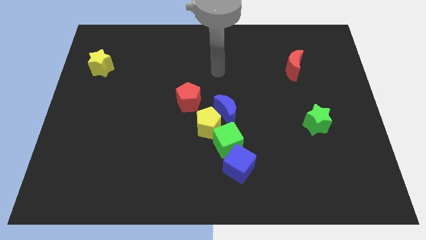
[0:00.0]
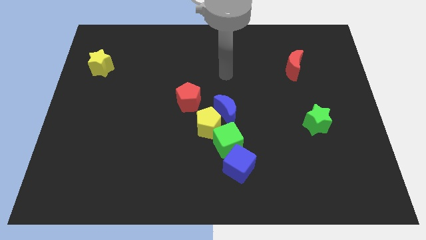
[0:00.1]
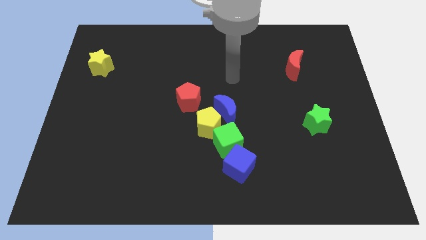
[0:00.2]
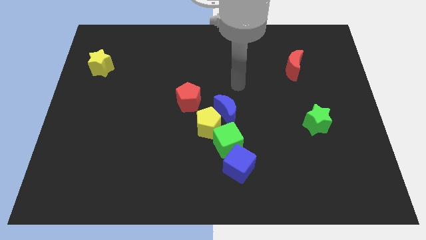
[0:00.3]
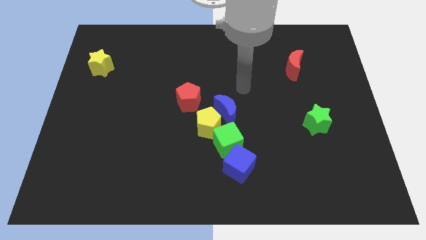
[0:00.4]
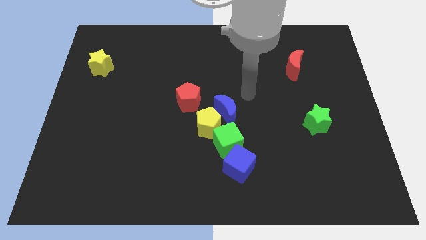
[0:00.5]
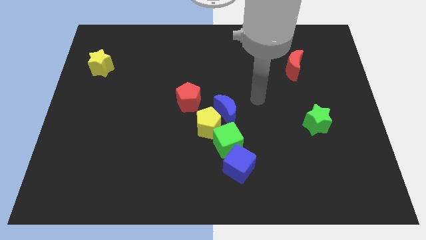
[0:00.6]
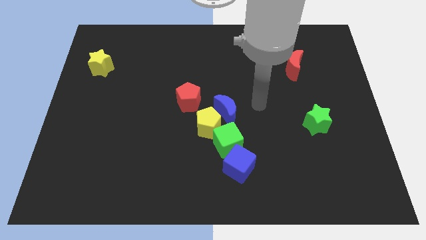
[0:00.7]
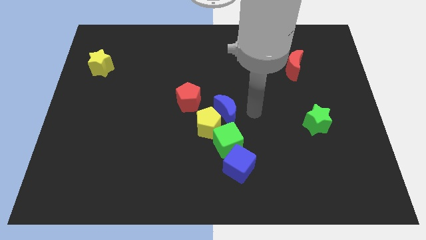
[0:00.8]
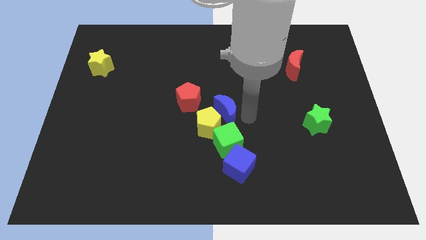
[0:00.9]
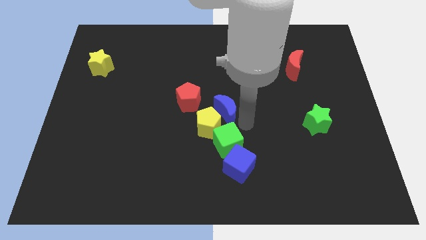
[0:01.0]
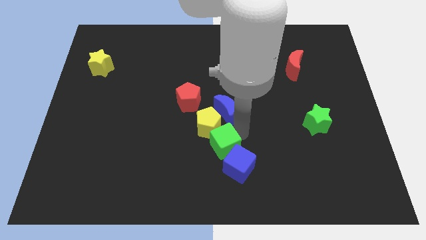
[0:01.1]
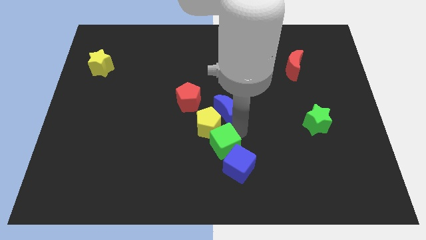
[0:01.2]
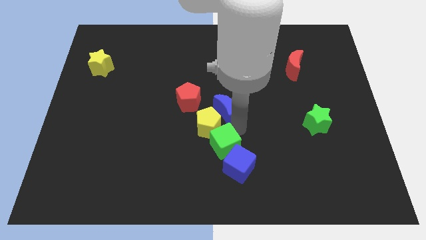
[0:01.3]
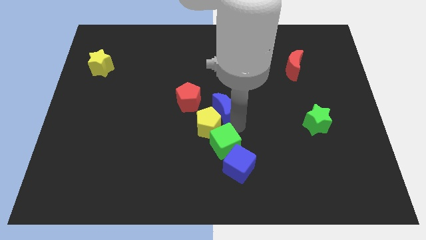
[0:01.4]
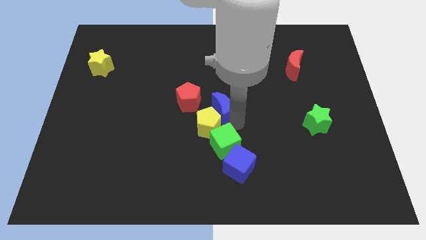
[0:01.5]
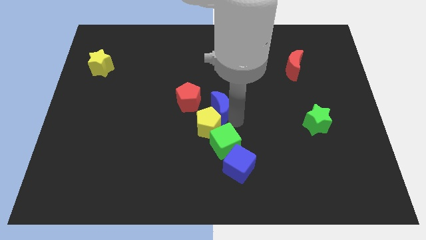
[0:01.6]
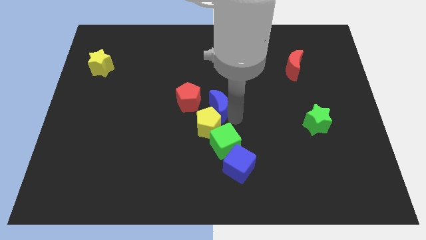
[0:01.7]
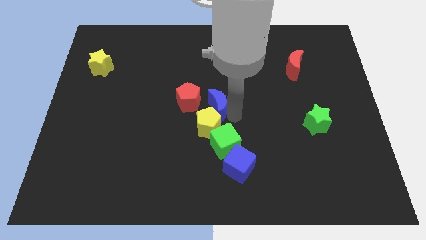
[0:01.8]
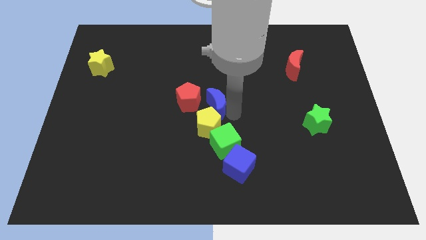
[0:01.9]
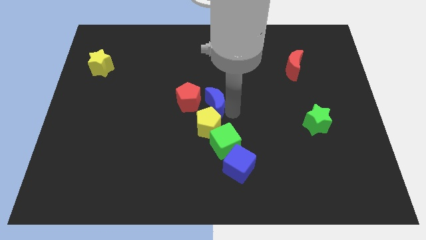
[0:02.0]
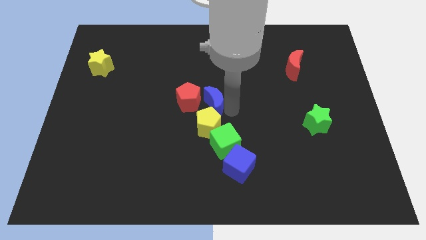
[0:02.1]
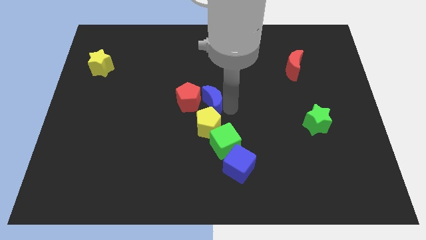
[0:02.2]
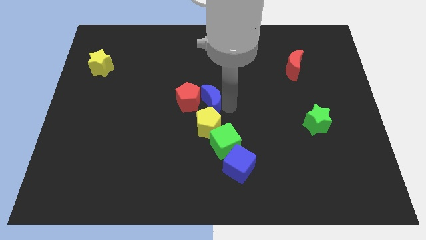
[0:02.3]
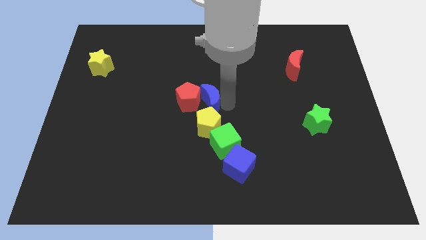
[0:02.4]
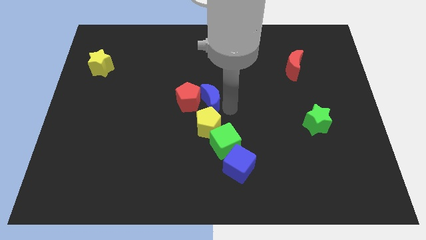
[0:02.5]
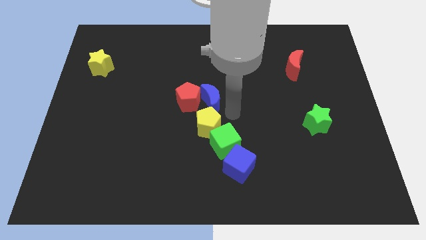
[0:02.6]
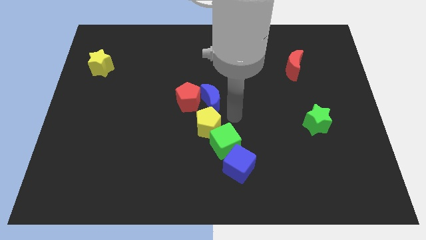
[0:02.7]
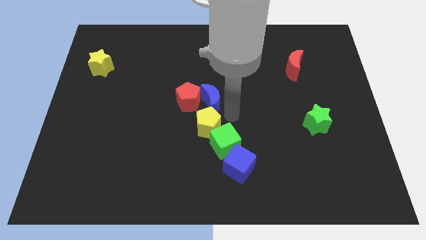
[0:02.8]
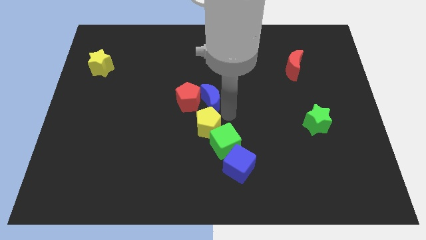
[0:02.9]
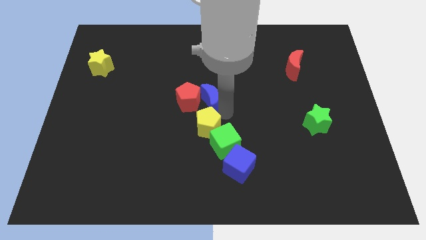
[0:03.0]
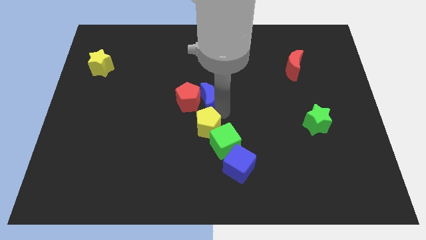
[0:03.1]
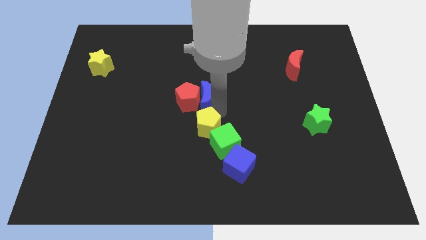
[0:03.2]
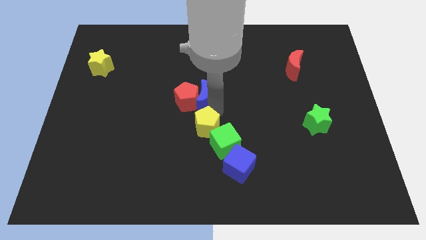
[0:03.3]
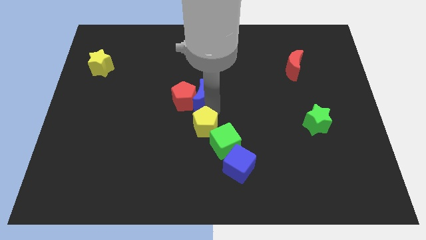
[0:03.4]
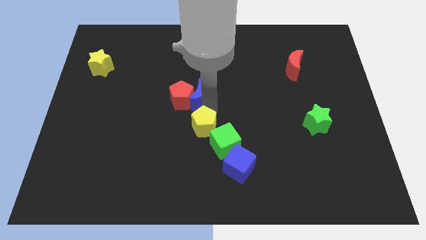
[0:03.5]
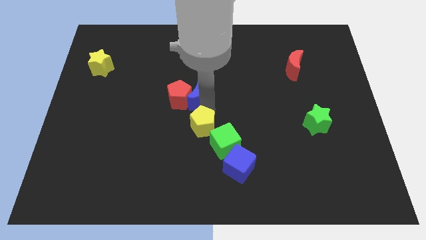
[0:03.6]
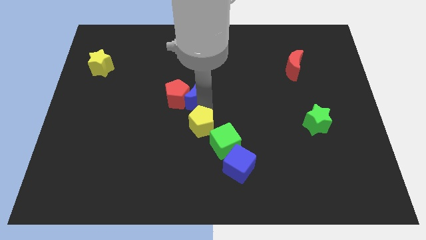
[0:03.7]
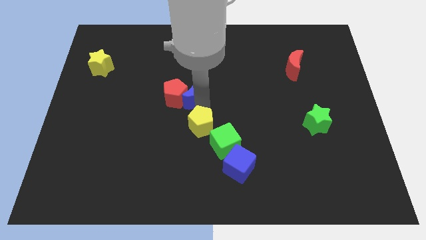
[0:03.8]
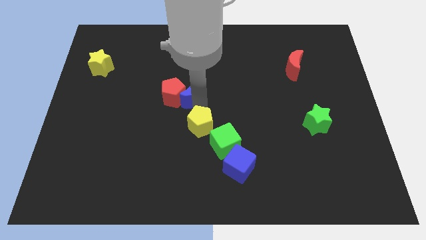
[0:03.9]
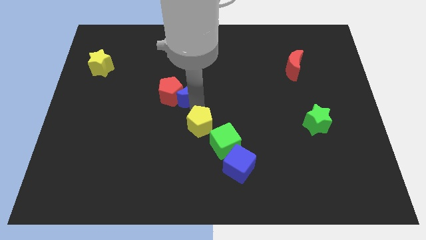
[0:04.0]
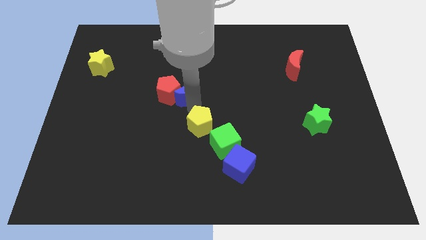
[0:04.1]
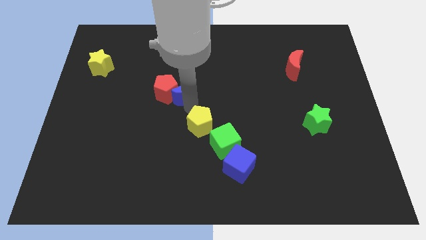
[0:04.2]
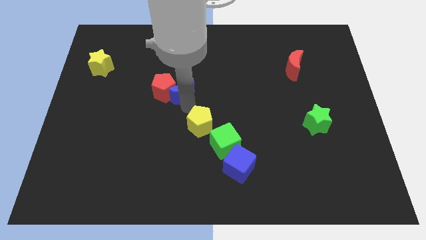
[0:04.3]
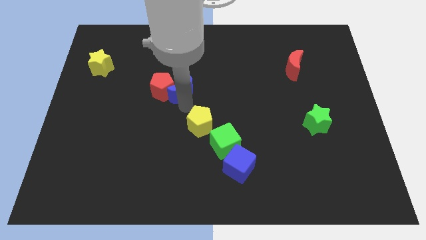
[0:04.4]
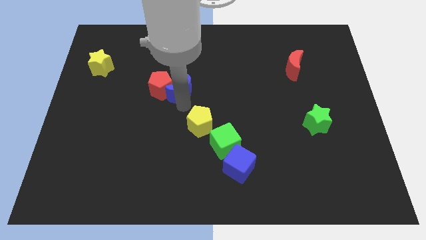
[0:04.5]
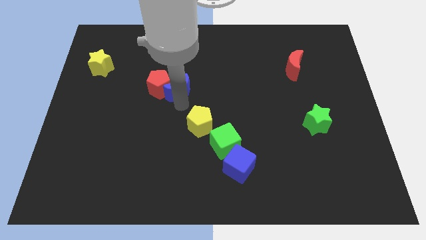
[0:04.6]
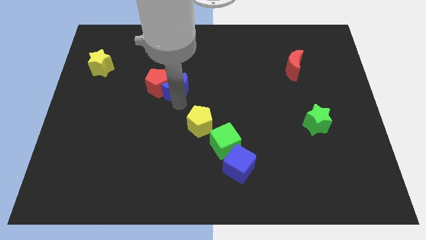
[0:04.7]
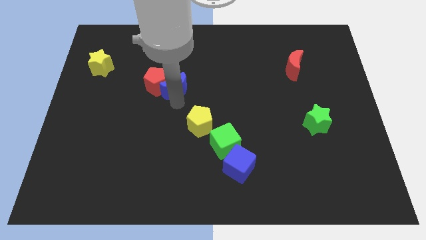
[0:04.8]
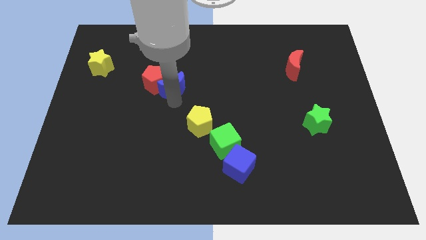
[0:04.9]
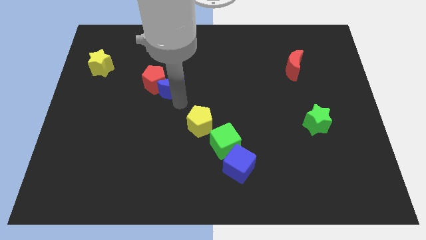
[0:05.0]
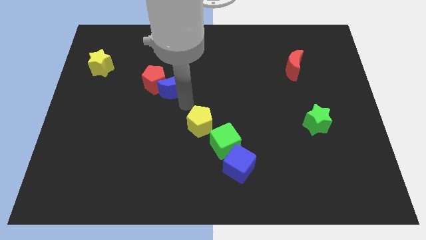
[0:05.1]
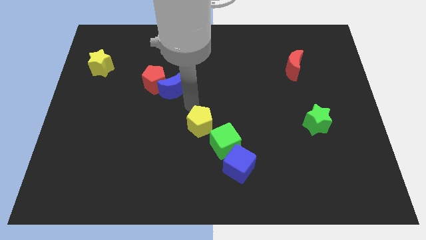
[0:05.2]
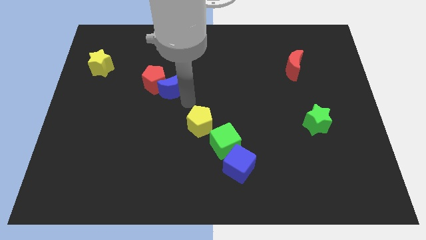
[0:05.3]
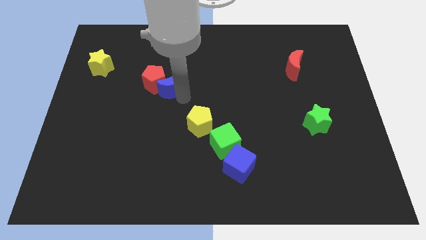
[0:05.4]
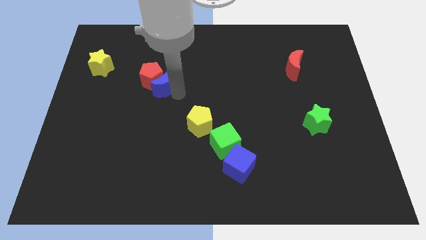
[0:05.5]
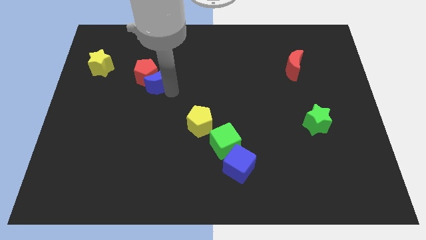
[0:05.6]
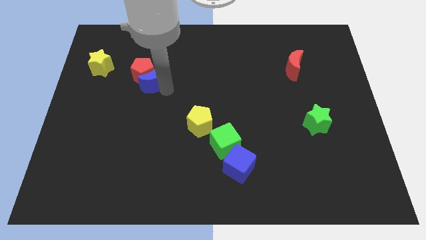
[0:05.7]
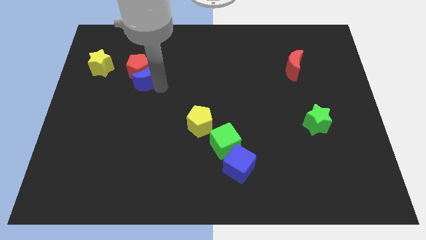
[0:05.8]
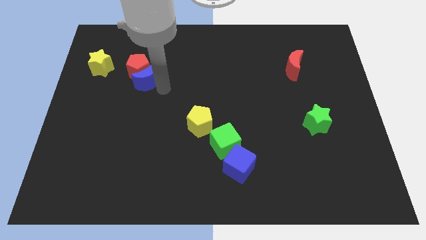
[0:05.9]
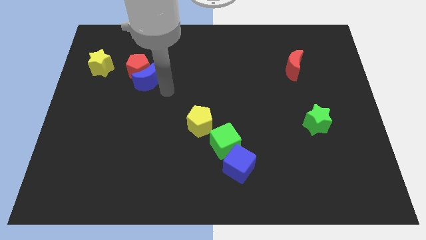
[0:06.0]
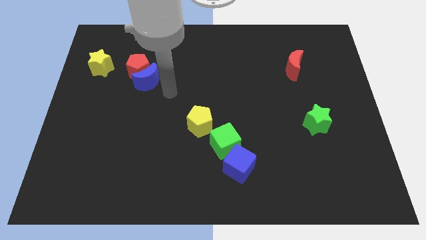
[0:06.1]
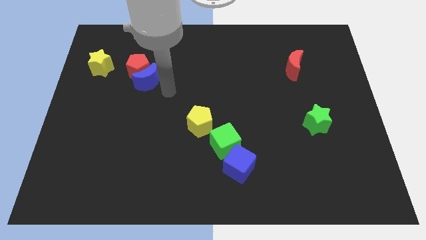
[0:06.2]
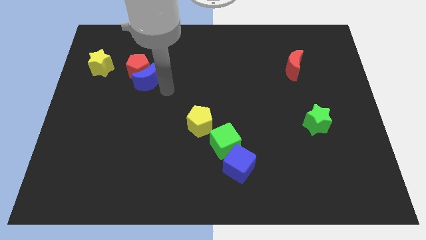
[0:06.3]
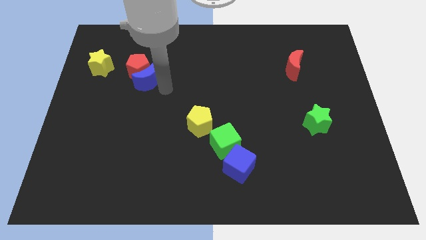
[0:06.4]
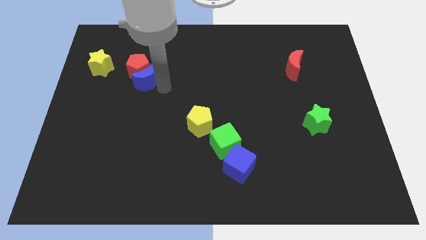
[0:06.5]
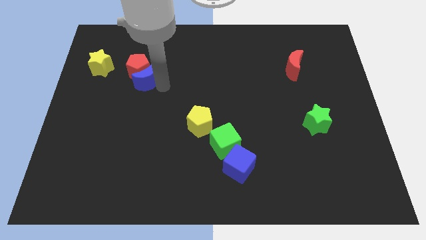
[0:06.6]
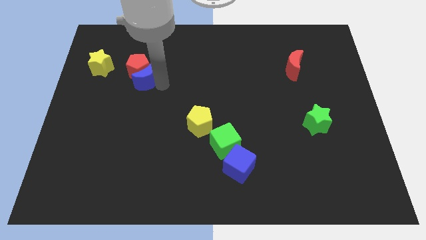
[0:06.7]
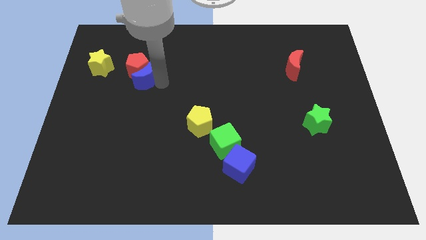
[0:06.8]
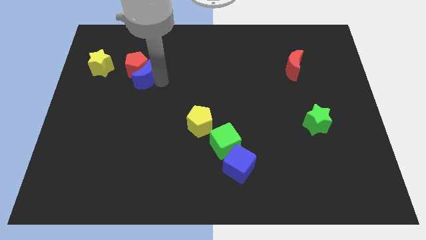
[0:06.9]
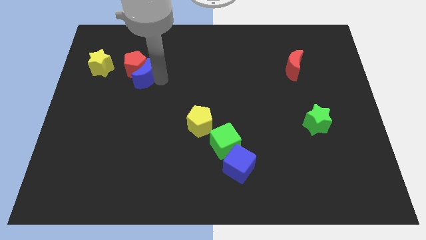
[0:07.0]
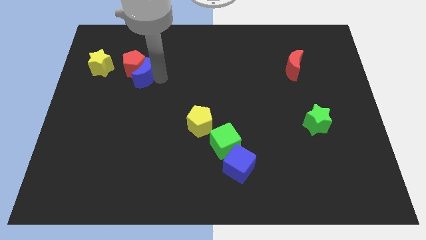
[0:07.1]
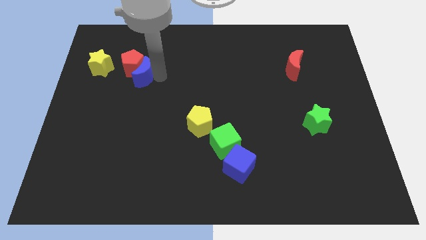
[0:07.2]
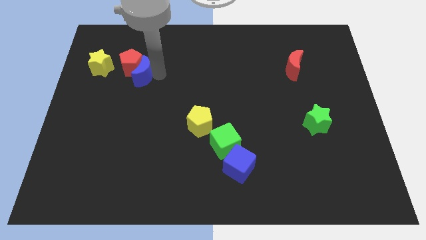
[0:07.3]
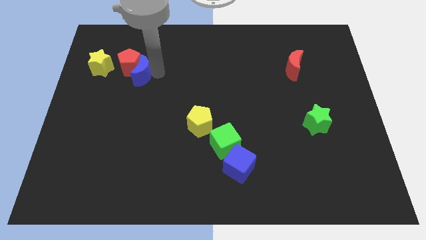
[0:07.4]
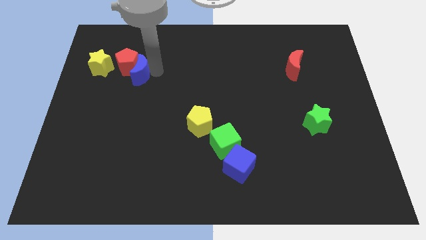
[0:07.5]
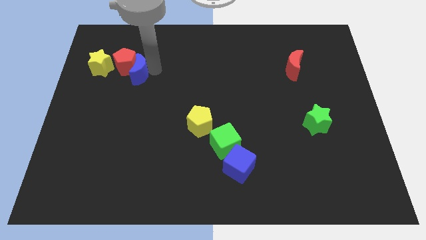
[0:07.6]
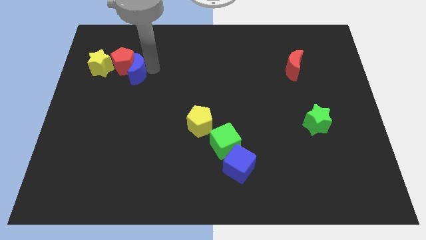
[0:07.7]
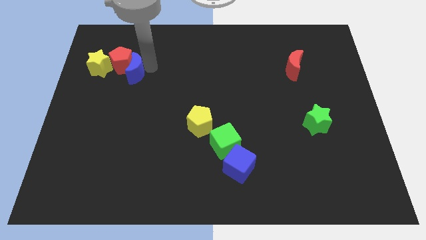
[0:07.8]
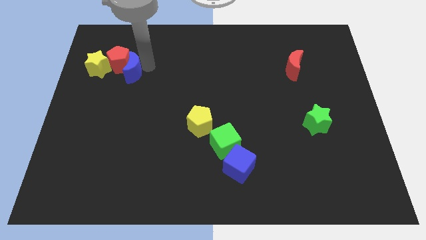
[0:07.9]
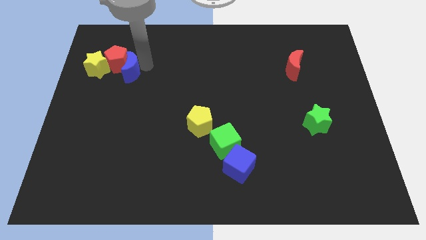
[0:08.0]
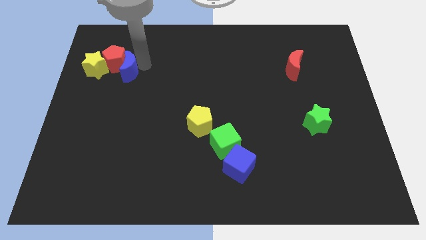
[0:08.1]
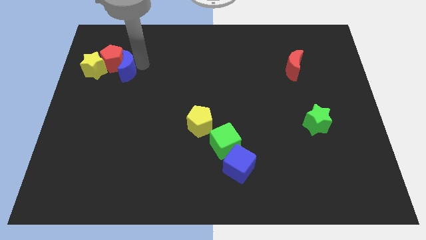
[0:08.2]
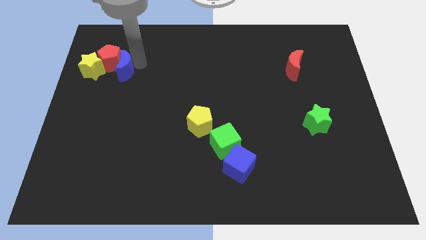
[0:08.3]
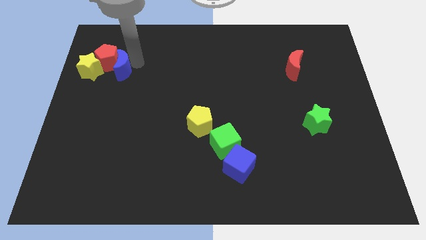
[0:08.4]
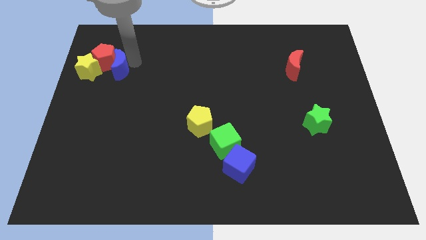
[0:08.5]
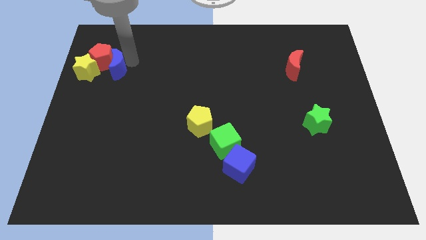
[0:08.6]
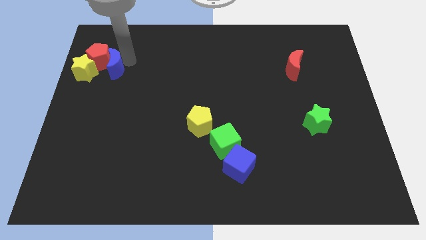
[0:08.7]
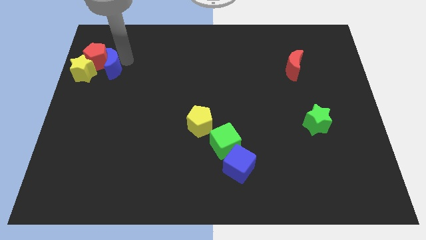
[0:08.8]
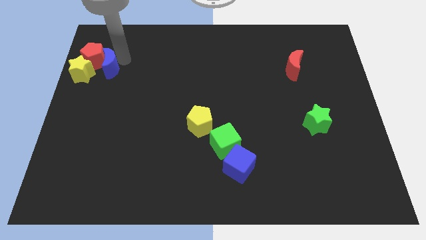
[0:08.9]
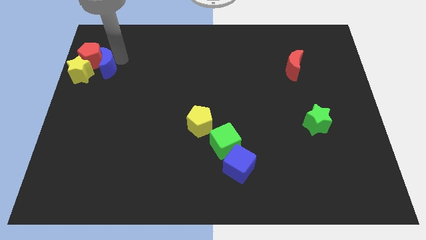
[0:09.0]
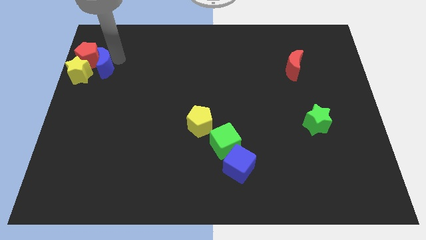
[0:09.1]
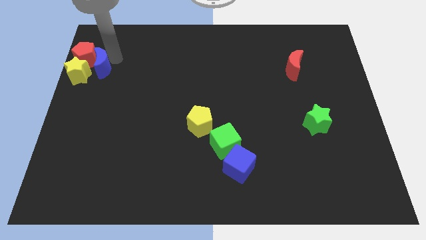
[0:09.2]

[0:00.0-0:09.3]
slide the blue moon close to the yellow star
